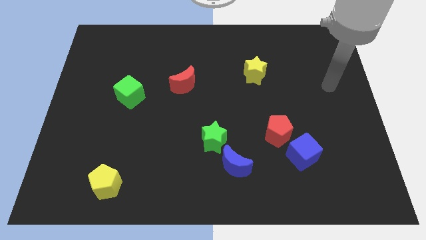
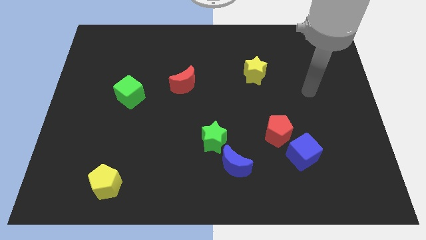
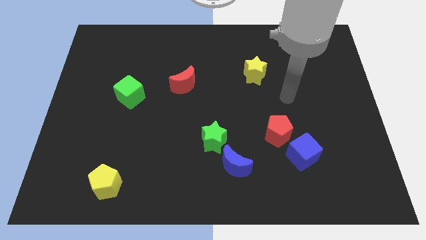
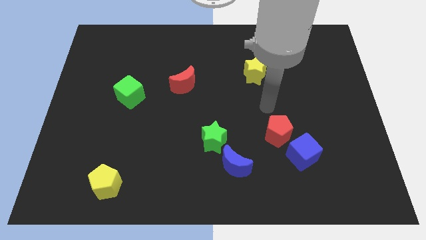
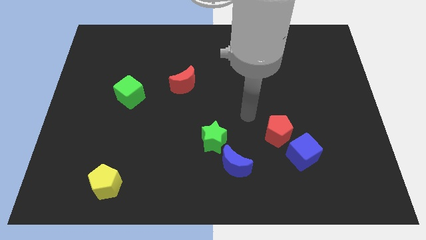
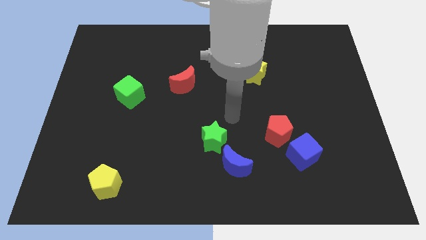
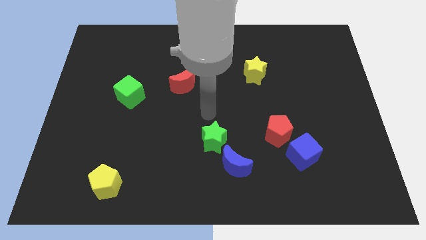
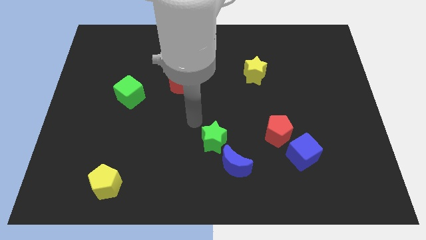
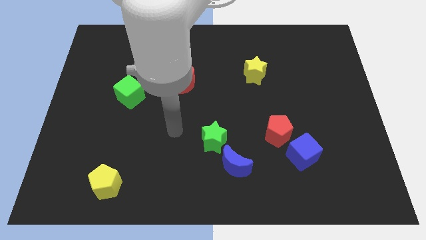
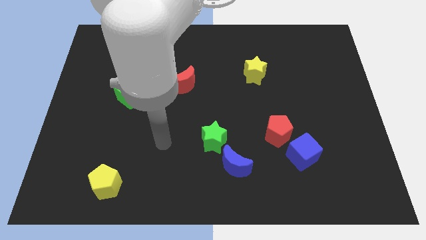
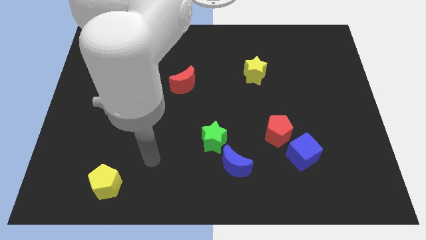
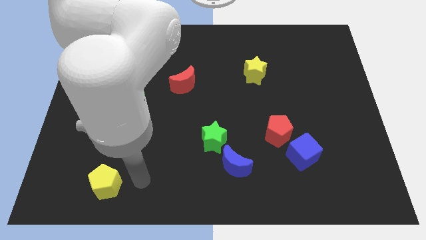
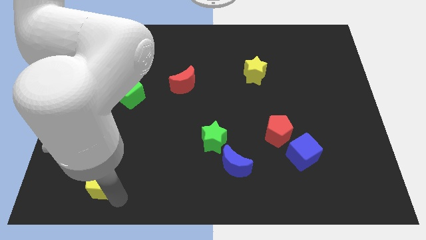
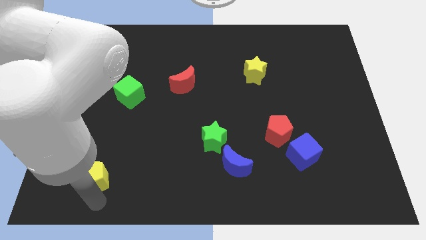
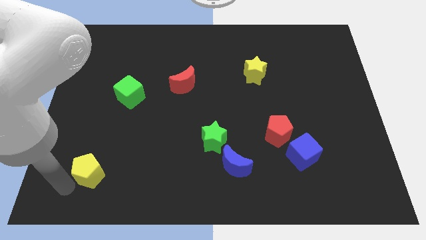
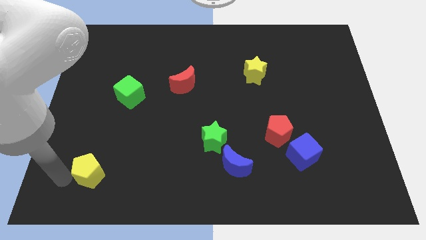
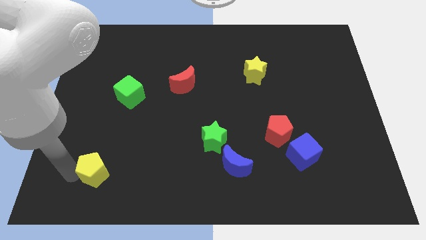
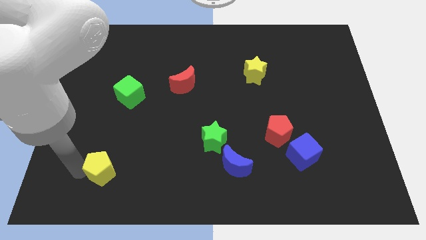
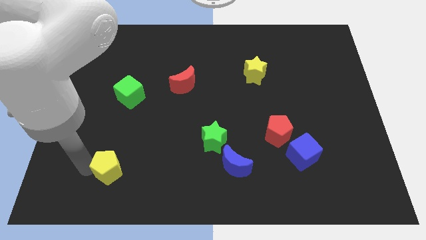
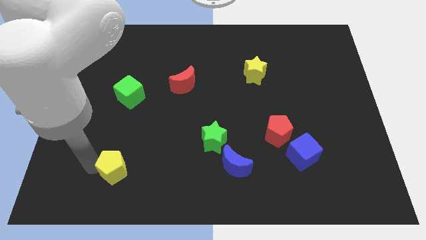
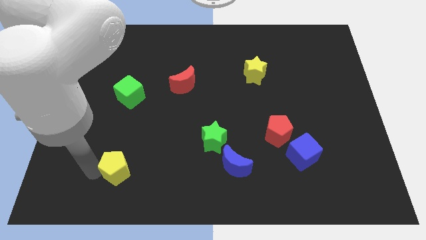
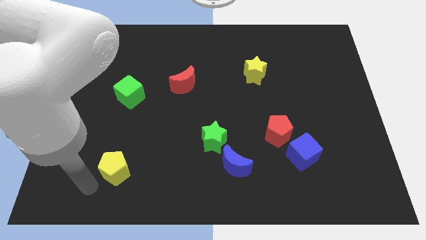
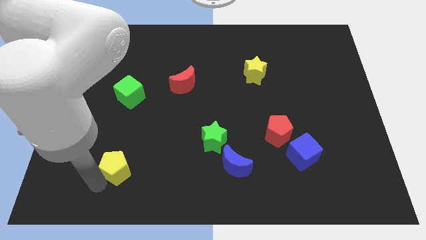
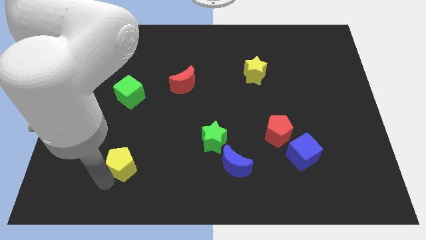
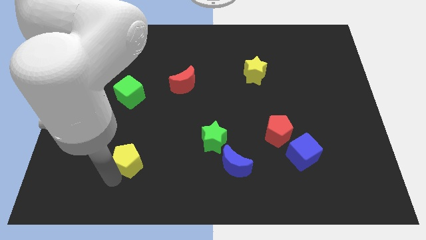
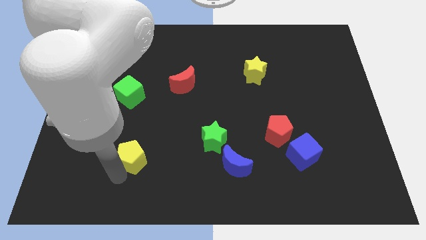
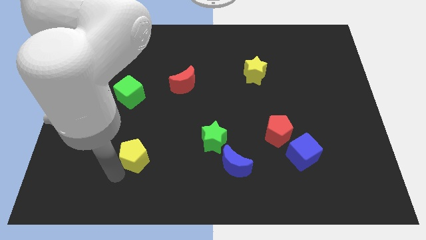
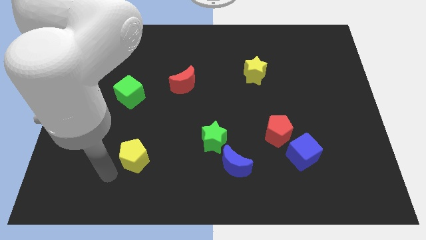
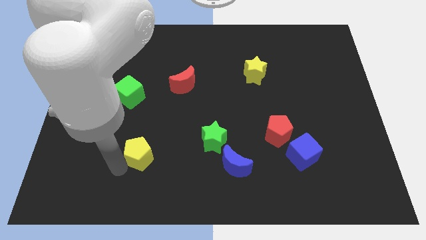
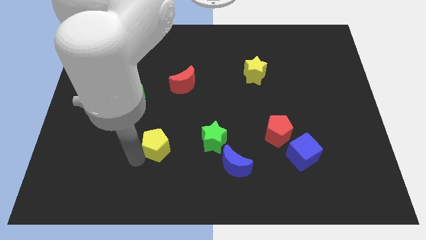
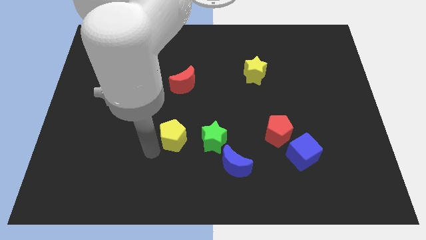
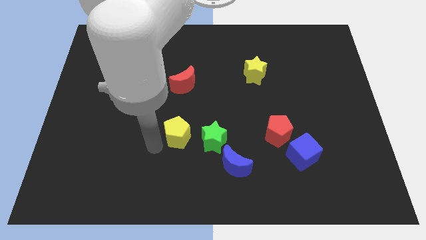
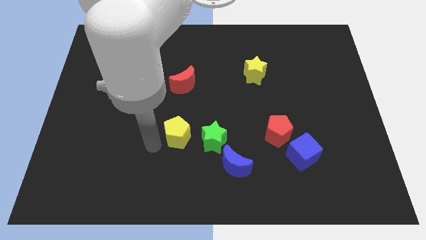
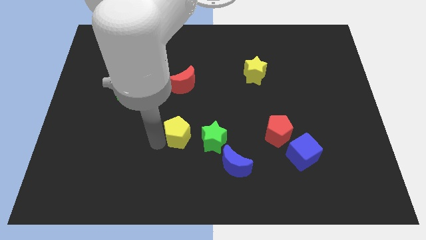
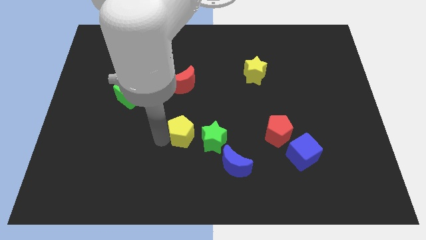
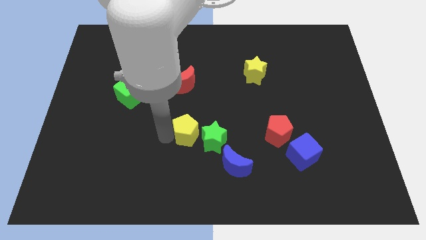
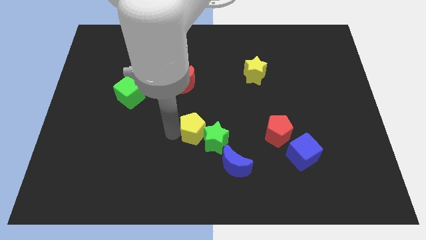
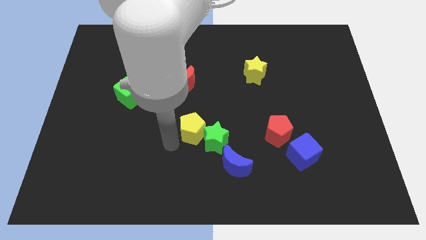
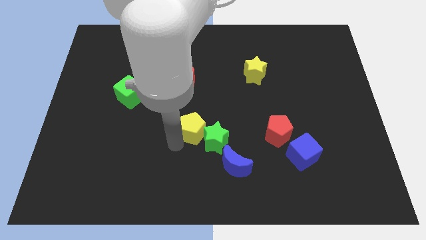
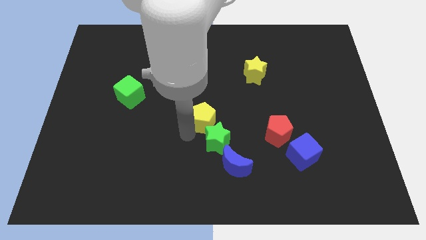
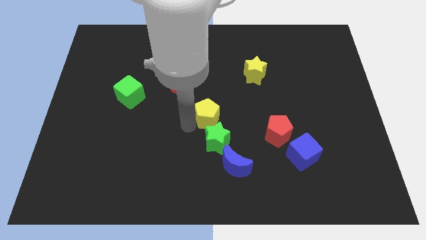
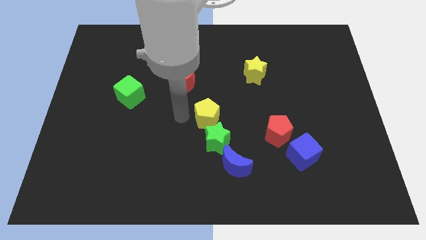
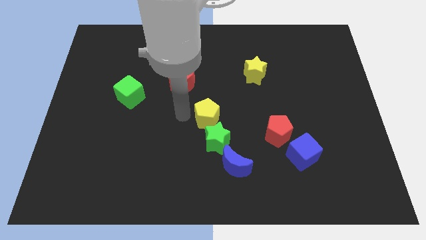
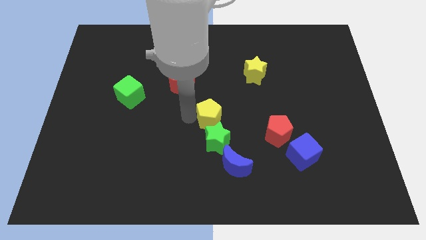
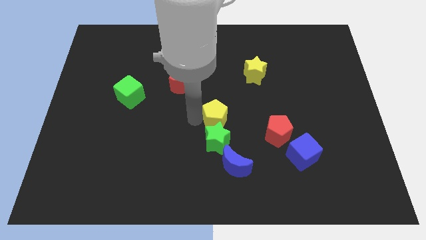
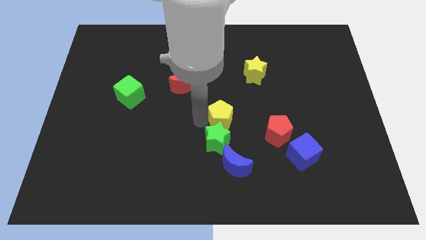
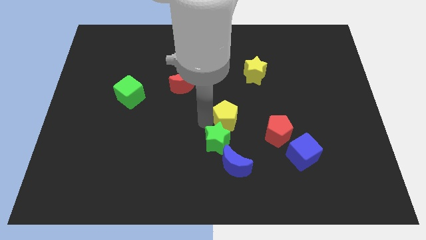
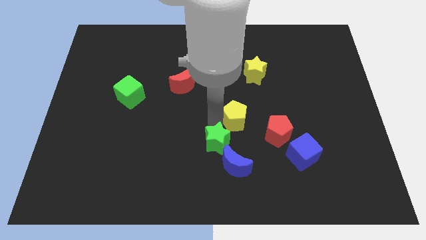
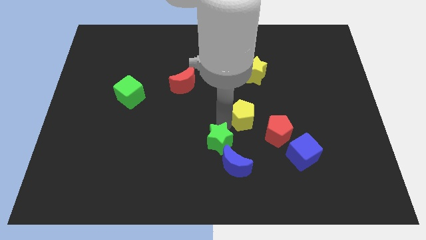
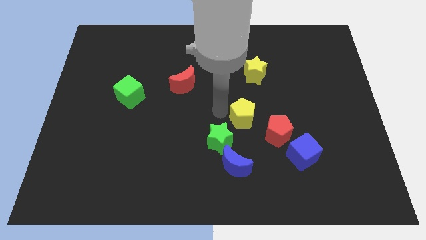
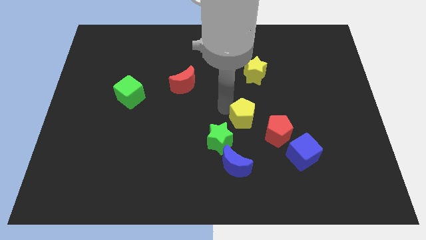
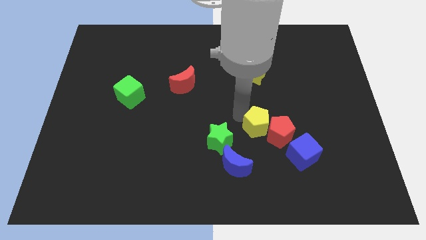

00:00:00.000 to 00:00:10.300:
move the yellow pentagon towards the red pentagon

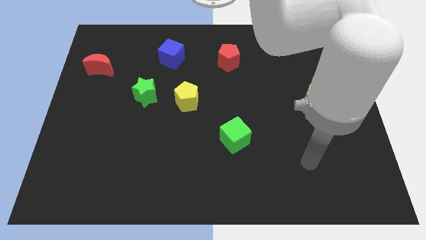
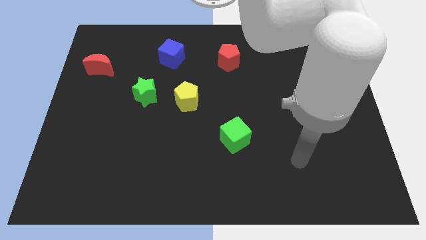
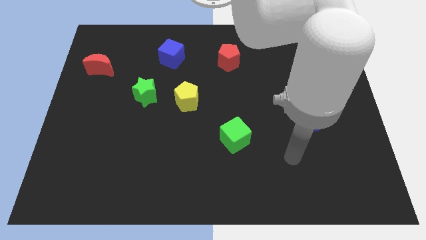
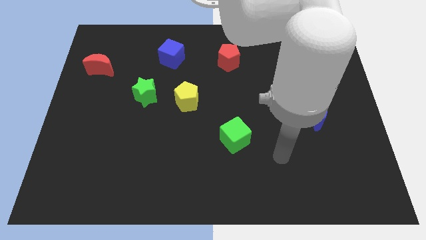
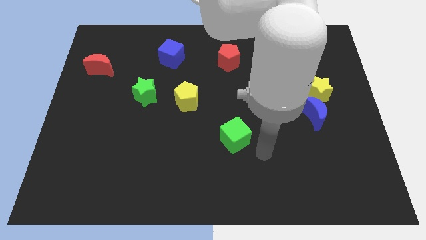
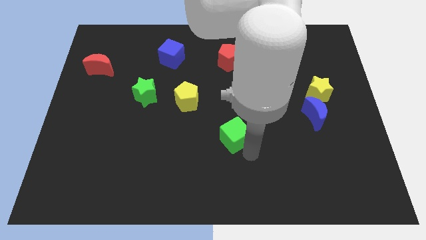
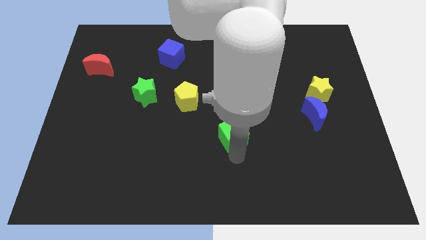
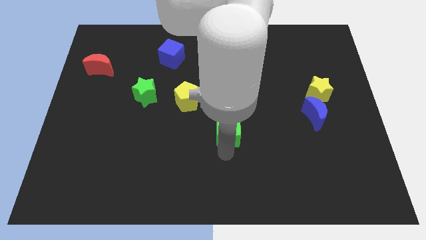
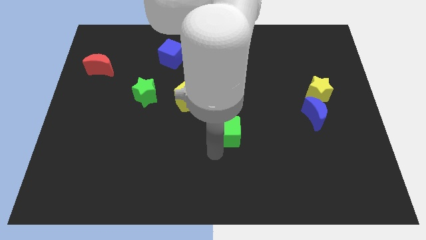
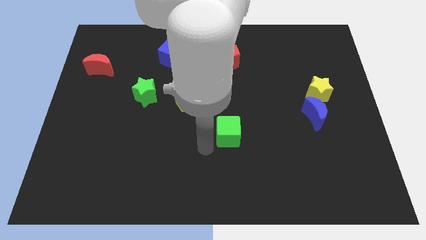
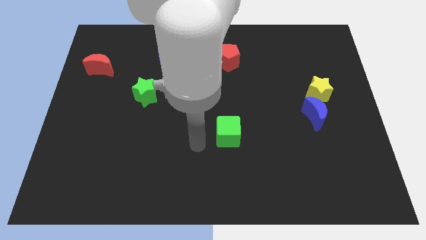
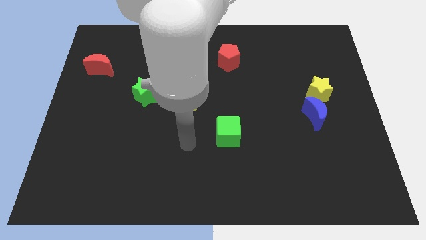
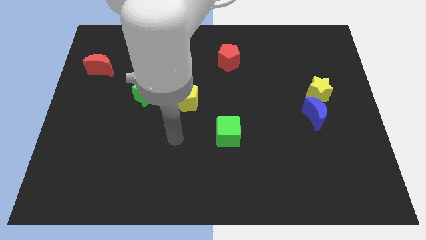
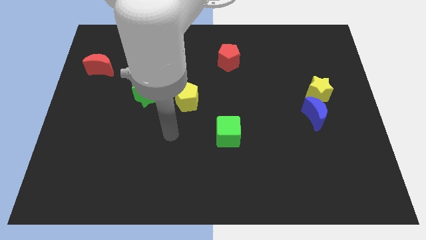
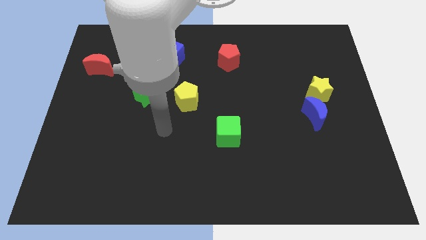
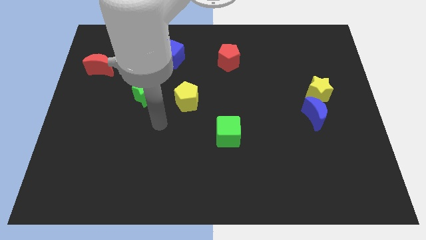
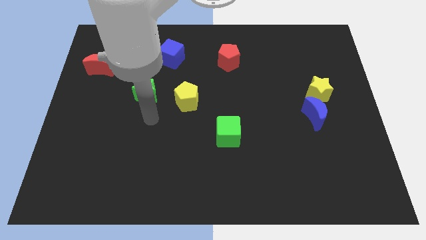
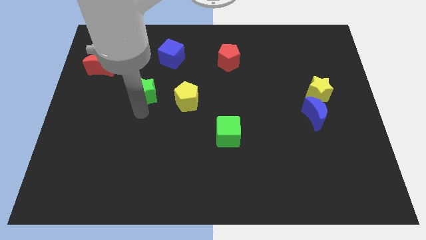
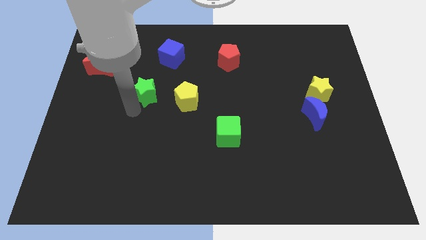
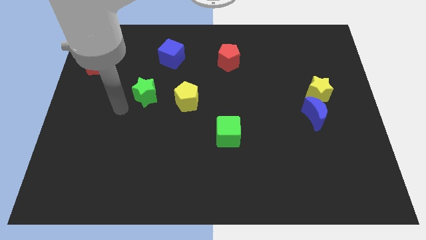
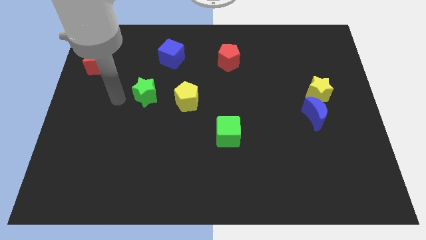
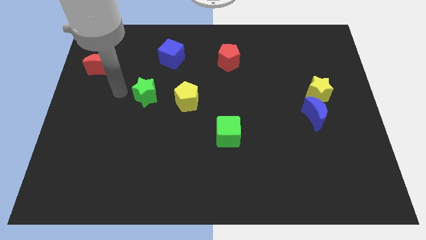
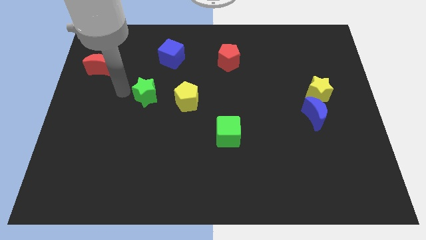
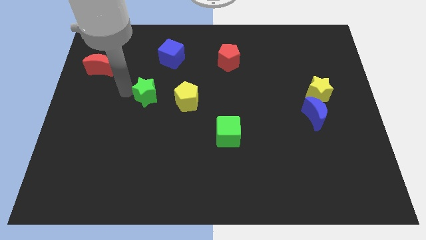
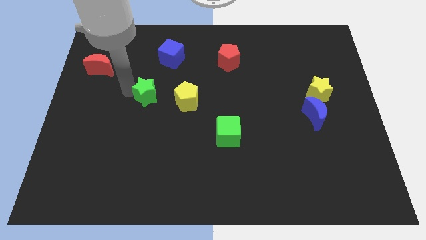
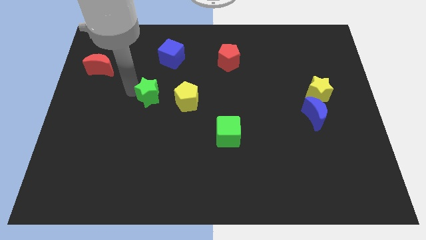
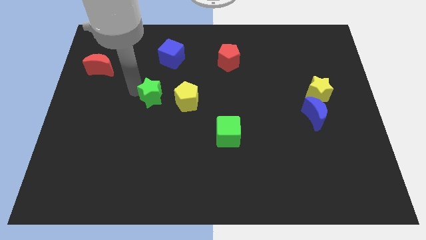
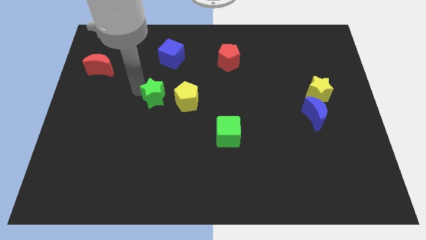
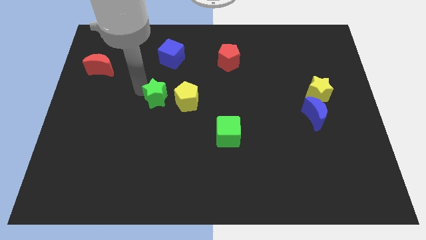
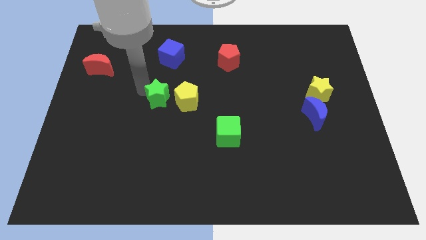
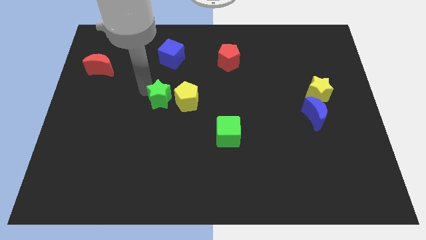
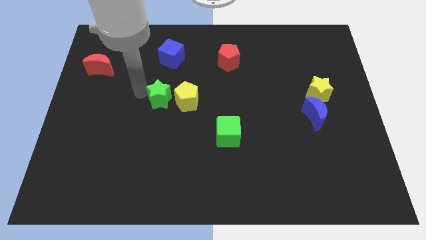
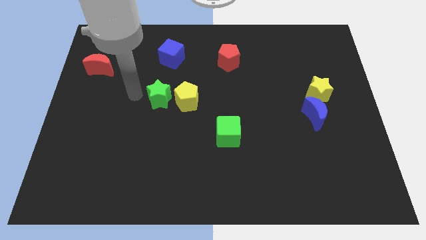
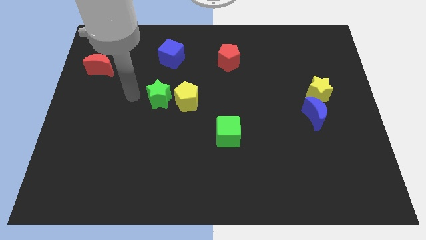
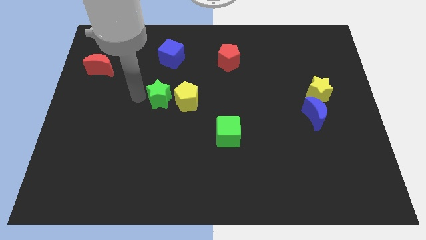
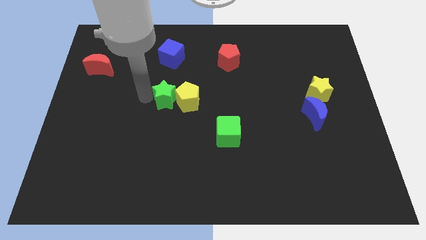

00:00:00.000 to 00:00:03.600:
push the green star next to the yellow pentagon
